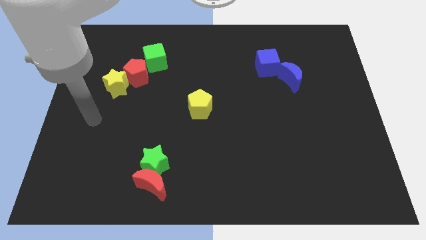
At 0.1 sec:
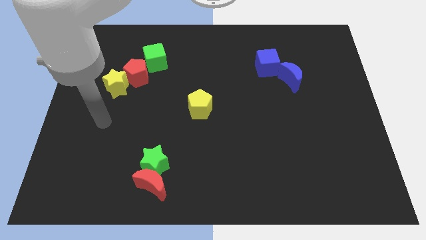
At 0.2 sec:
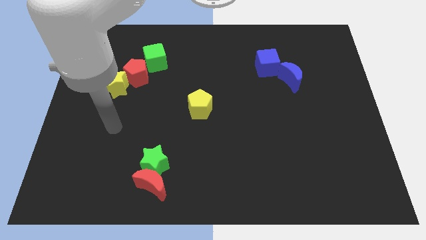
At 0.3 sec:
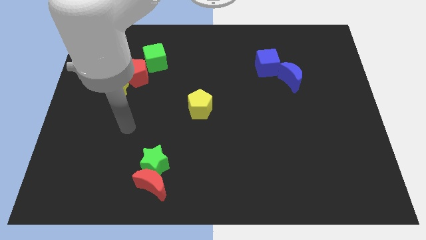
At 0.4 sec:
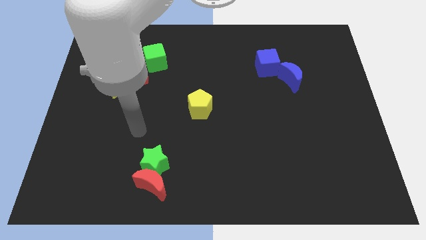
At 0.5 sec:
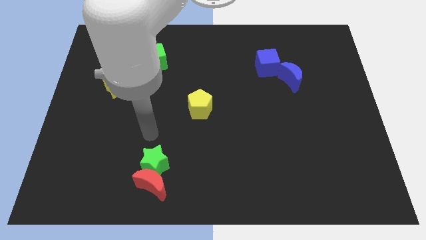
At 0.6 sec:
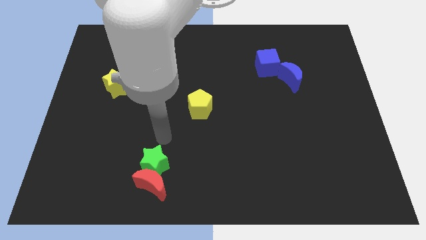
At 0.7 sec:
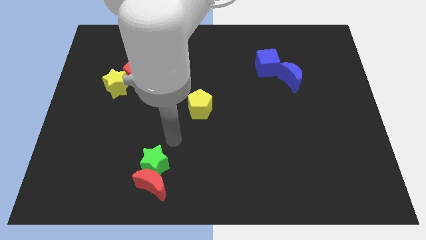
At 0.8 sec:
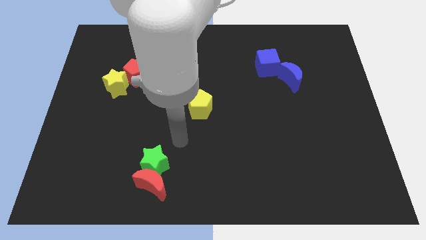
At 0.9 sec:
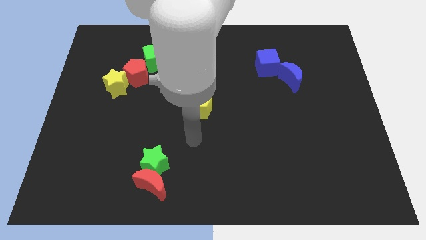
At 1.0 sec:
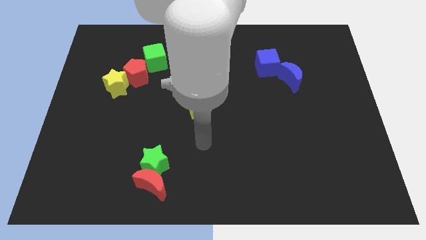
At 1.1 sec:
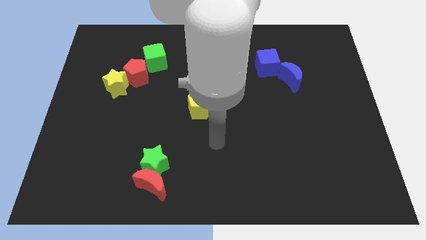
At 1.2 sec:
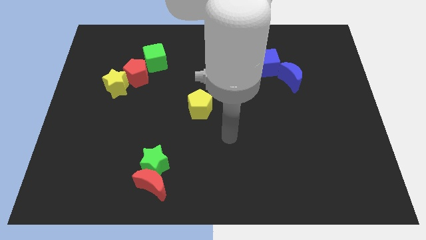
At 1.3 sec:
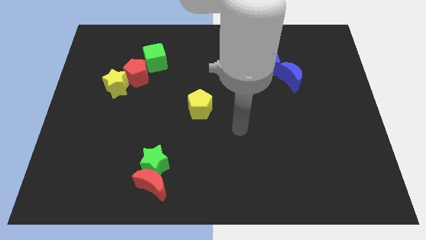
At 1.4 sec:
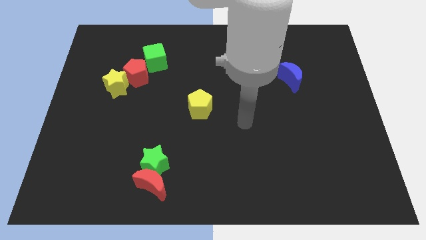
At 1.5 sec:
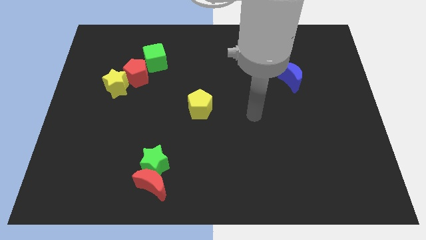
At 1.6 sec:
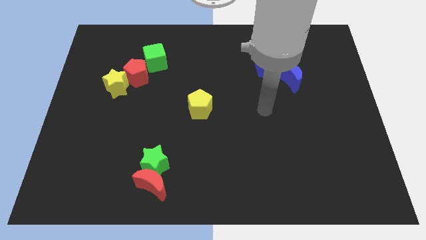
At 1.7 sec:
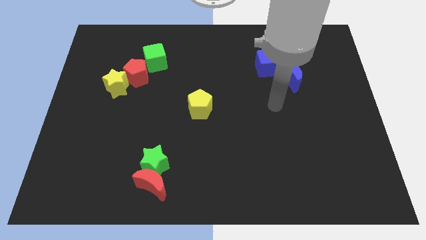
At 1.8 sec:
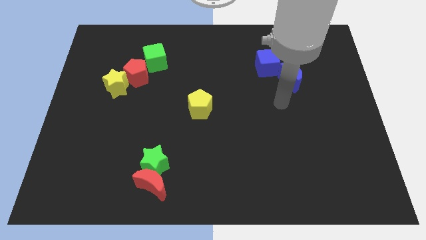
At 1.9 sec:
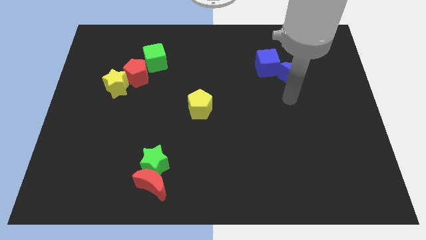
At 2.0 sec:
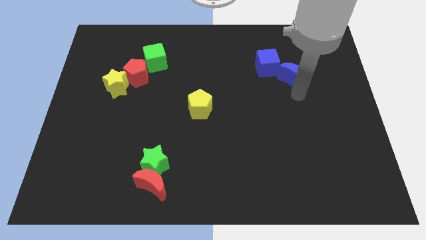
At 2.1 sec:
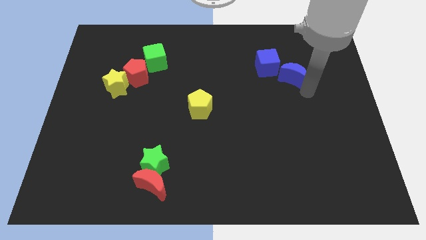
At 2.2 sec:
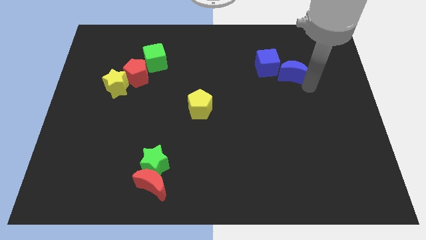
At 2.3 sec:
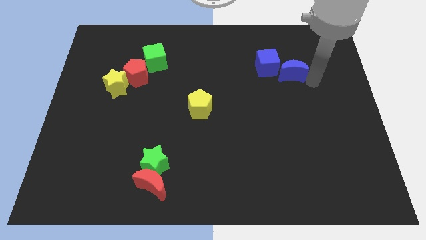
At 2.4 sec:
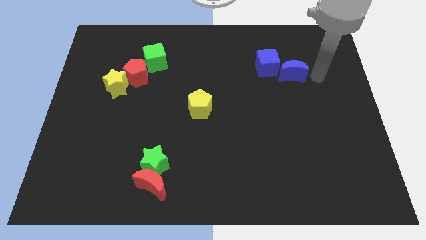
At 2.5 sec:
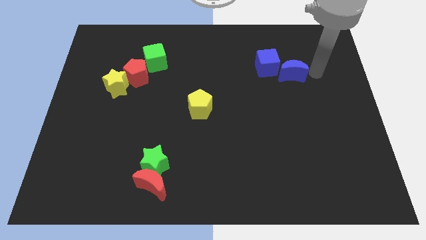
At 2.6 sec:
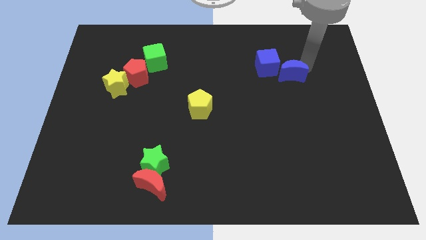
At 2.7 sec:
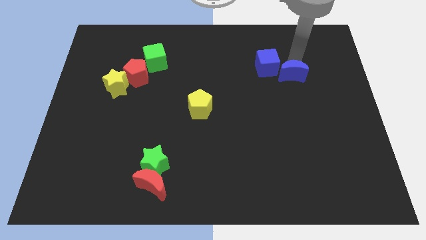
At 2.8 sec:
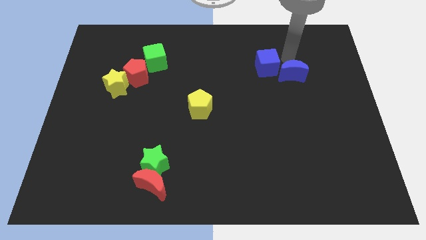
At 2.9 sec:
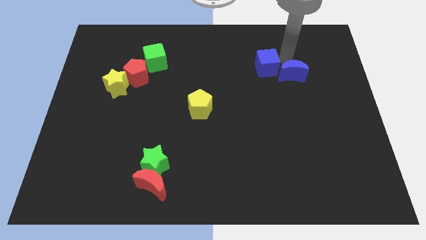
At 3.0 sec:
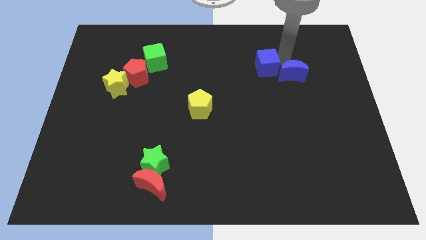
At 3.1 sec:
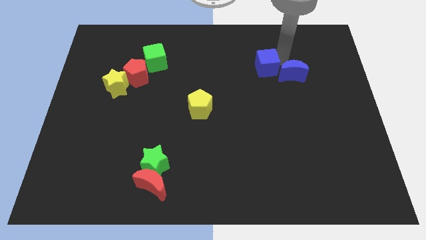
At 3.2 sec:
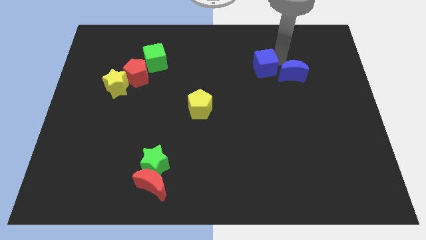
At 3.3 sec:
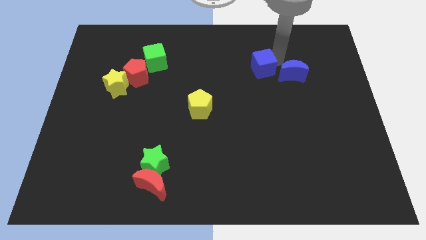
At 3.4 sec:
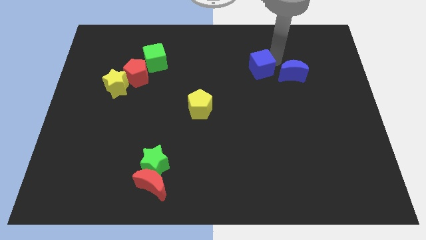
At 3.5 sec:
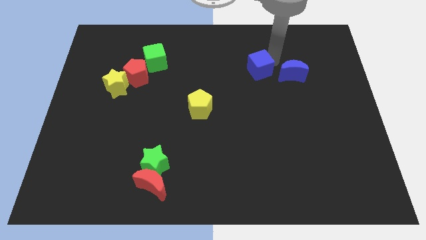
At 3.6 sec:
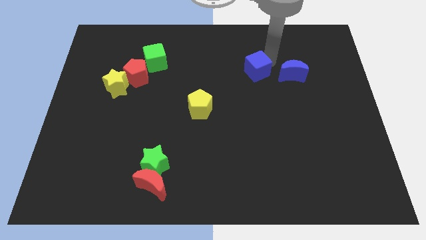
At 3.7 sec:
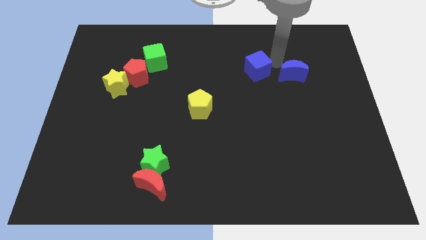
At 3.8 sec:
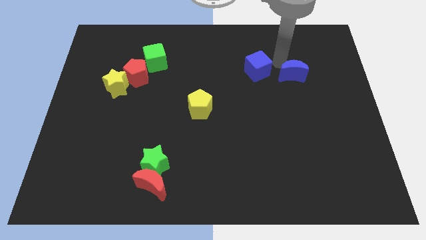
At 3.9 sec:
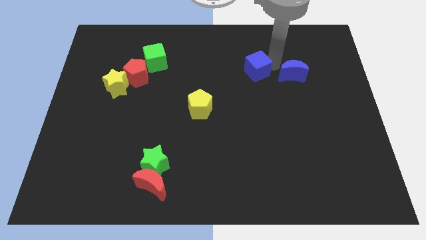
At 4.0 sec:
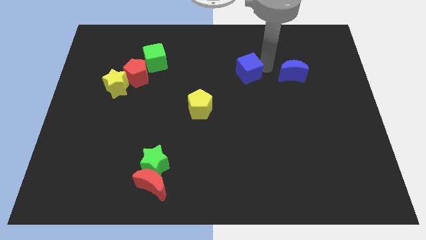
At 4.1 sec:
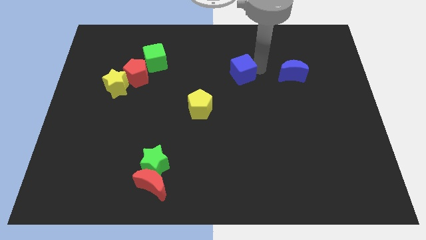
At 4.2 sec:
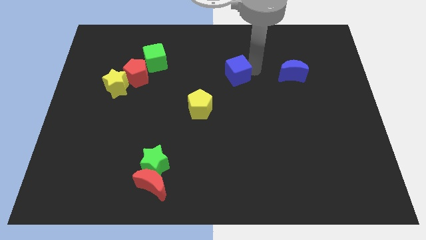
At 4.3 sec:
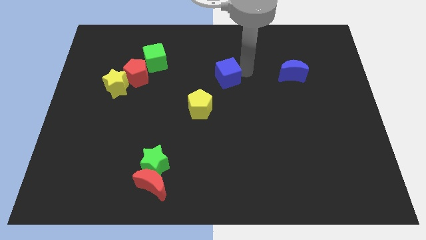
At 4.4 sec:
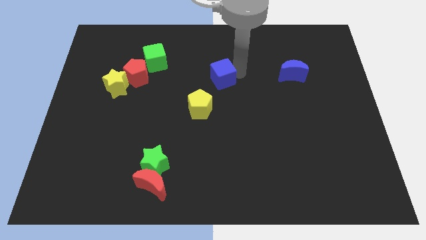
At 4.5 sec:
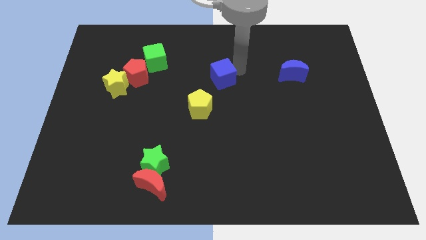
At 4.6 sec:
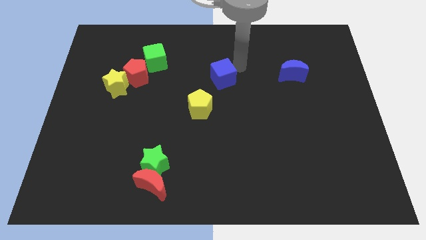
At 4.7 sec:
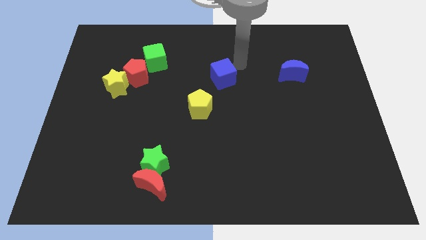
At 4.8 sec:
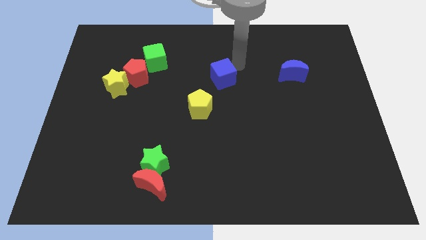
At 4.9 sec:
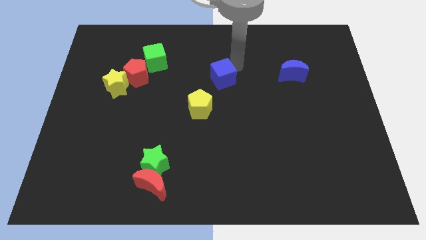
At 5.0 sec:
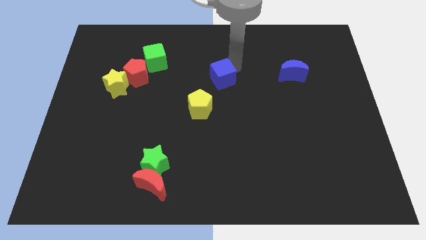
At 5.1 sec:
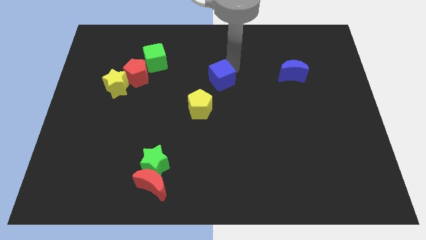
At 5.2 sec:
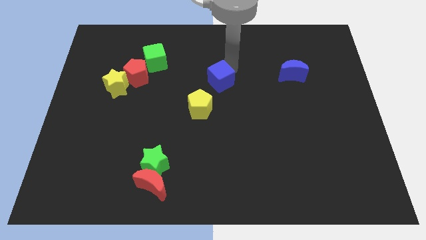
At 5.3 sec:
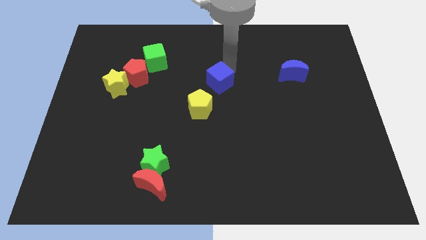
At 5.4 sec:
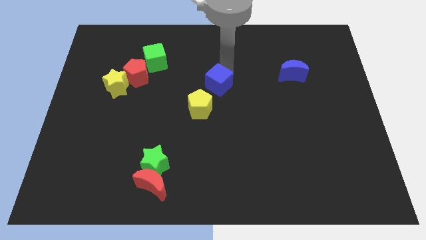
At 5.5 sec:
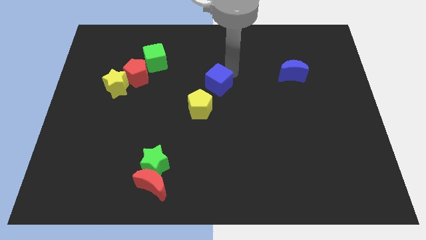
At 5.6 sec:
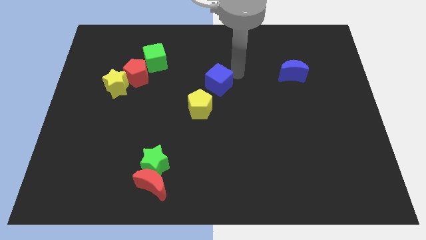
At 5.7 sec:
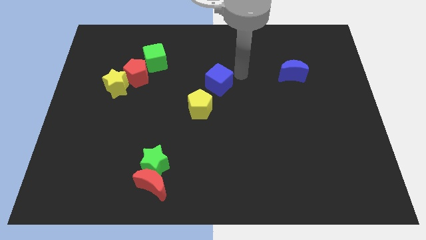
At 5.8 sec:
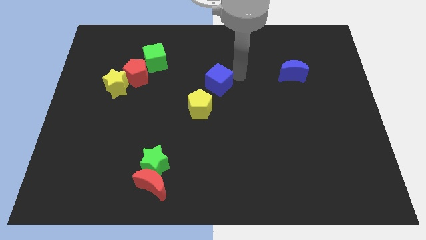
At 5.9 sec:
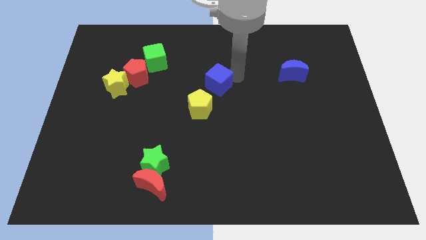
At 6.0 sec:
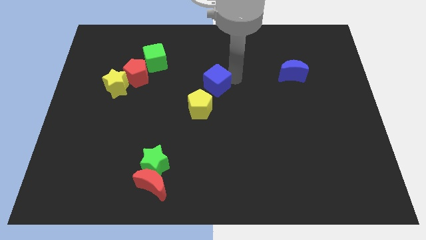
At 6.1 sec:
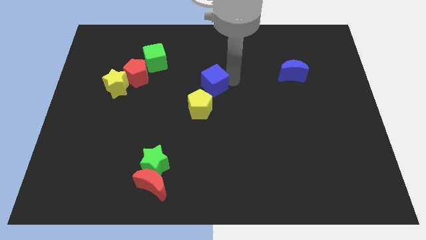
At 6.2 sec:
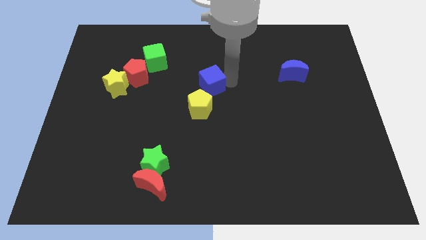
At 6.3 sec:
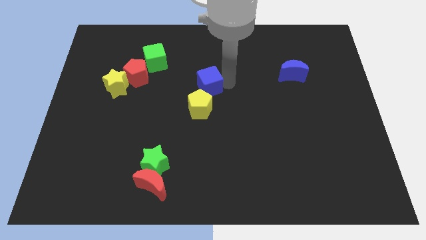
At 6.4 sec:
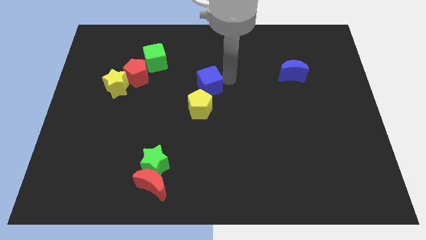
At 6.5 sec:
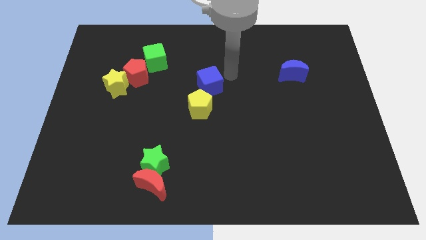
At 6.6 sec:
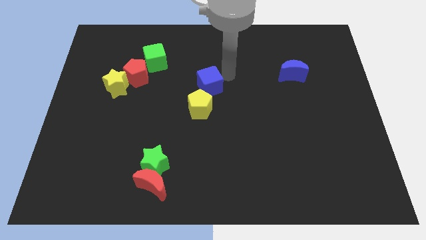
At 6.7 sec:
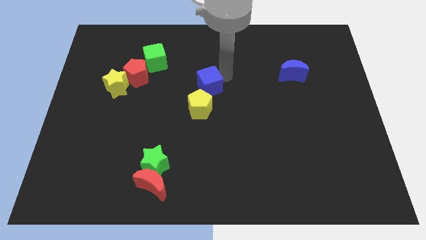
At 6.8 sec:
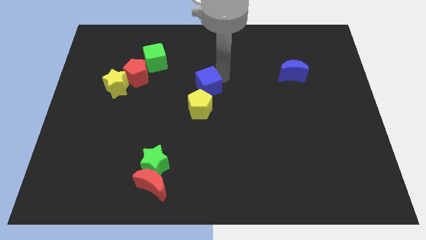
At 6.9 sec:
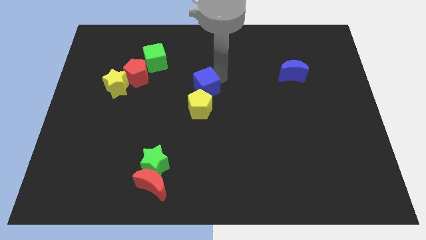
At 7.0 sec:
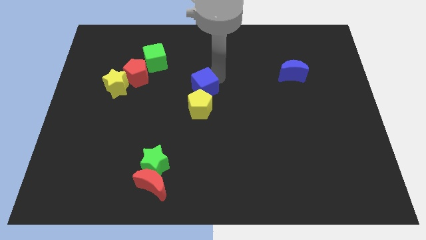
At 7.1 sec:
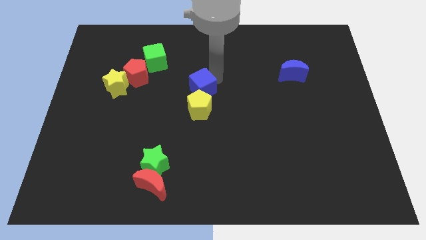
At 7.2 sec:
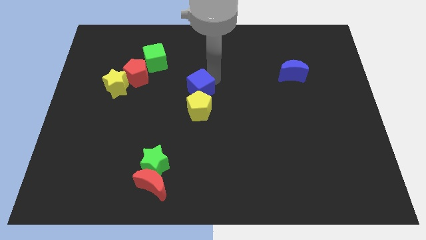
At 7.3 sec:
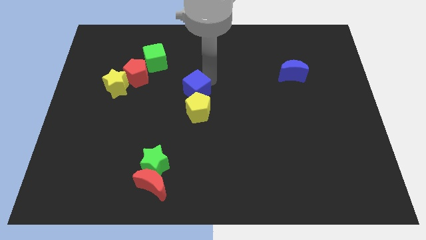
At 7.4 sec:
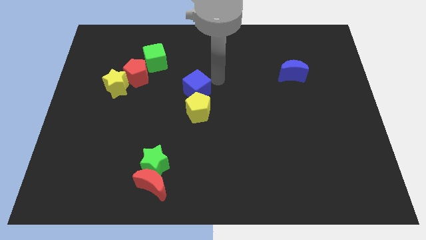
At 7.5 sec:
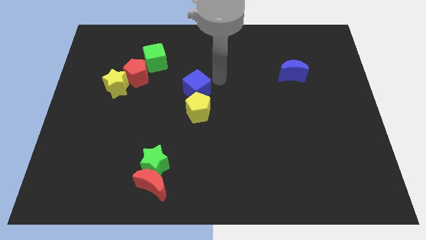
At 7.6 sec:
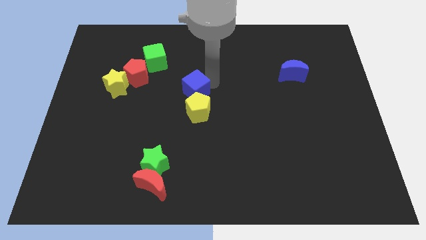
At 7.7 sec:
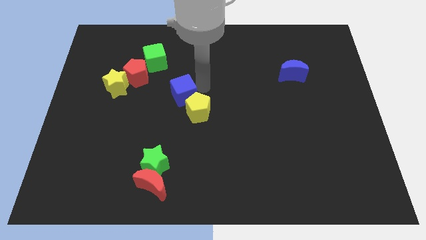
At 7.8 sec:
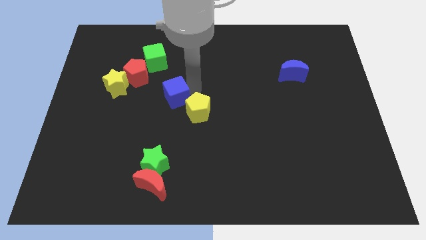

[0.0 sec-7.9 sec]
put the blue cube left of the yellow pentagon
